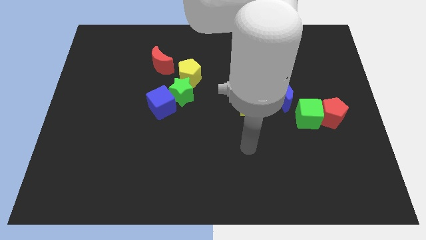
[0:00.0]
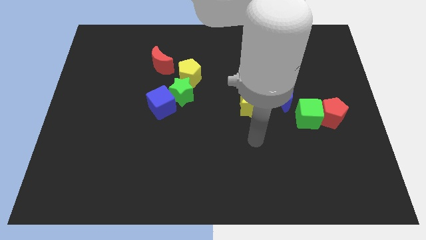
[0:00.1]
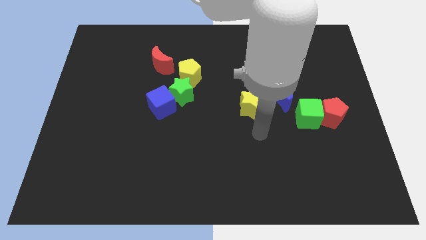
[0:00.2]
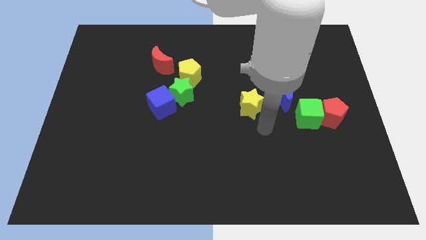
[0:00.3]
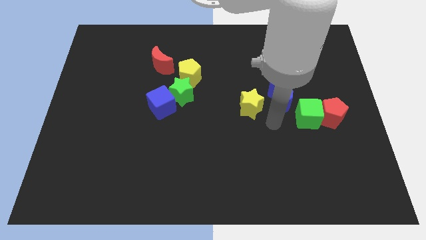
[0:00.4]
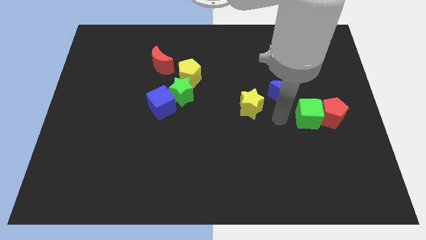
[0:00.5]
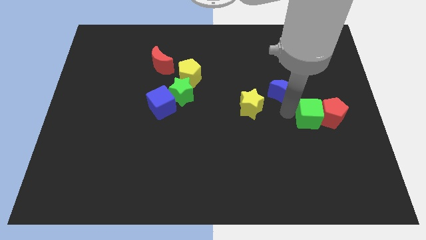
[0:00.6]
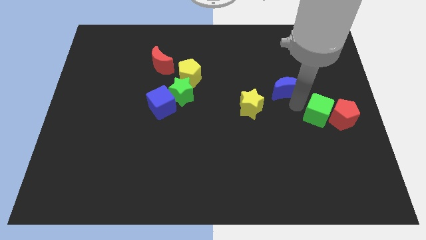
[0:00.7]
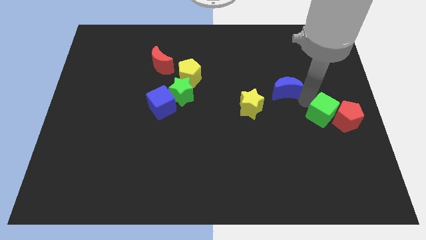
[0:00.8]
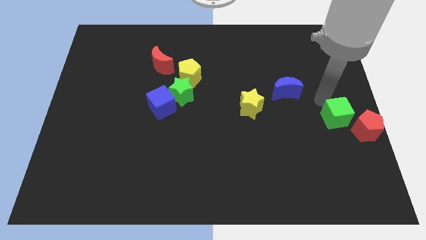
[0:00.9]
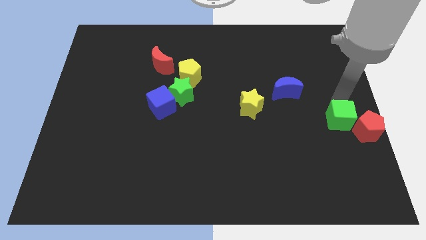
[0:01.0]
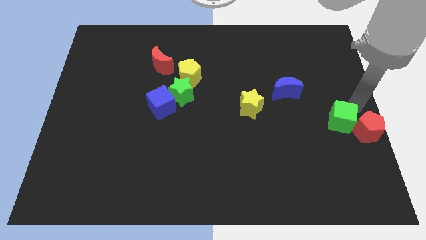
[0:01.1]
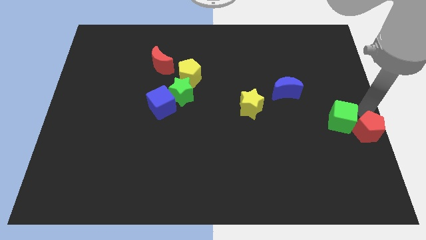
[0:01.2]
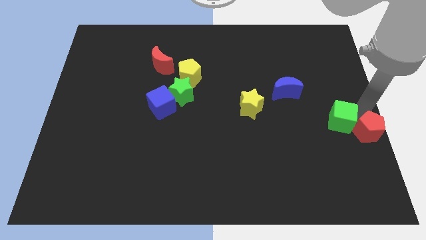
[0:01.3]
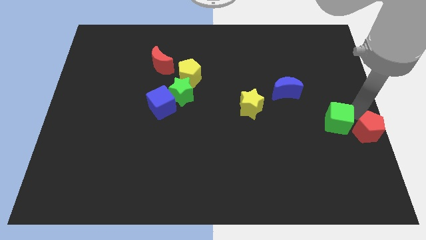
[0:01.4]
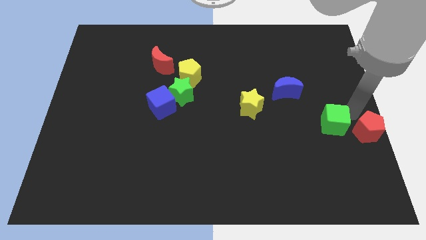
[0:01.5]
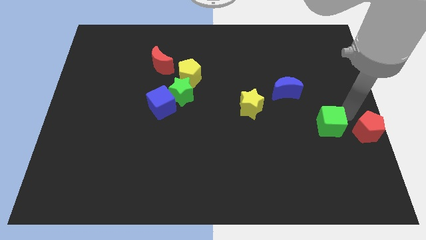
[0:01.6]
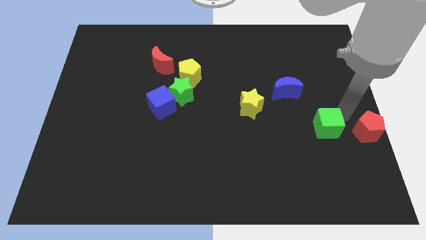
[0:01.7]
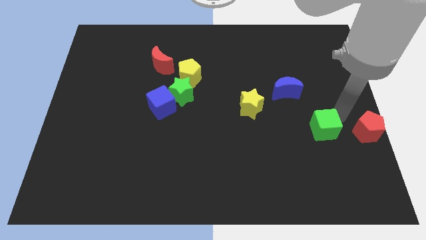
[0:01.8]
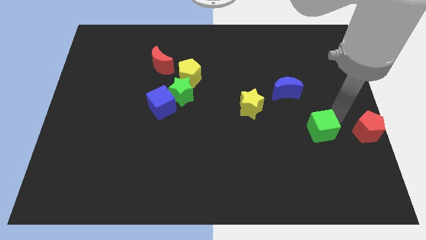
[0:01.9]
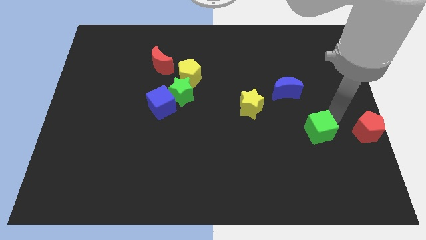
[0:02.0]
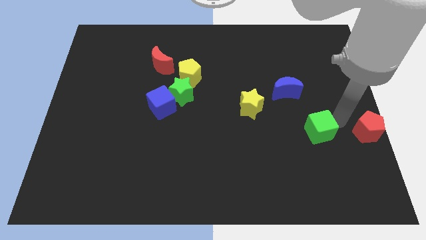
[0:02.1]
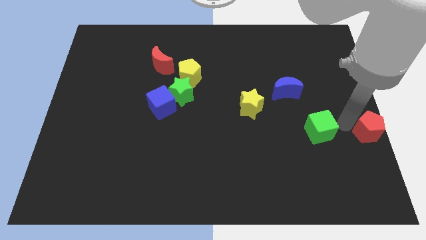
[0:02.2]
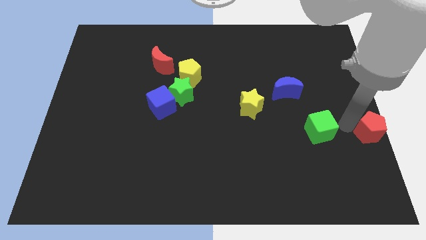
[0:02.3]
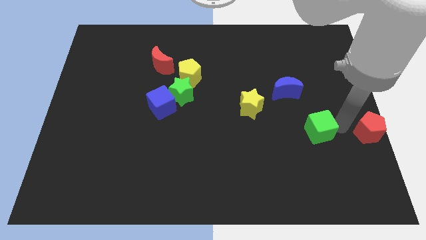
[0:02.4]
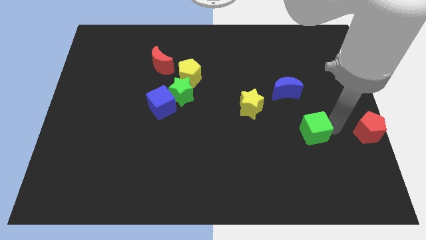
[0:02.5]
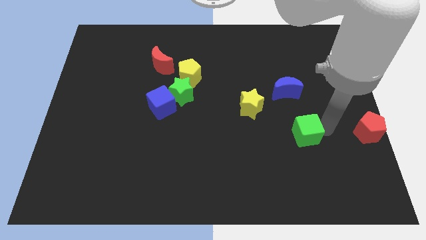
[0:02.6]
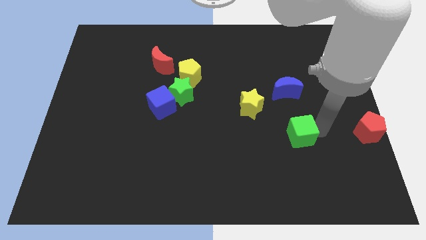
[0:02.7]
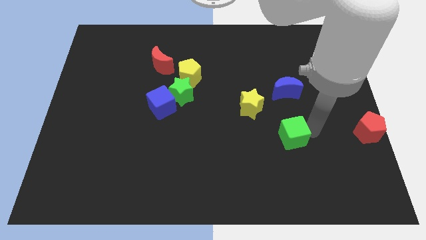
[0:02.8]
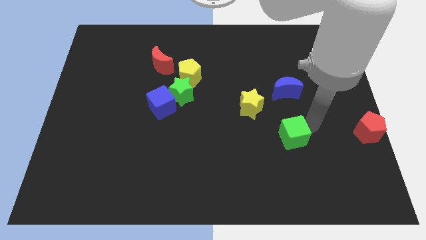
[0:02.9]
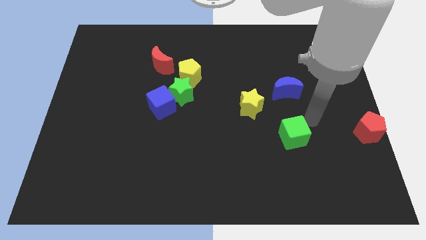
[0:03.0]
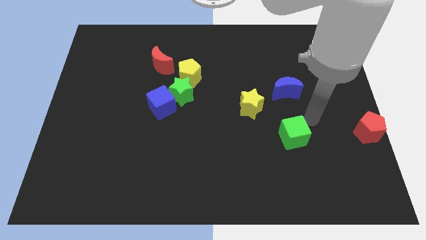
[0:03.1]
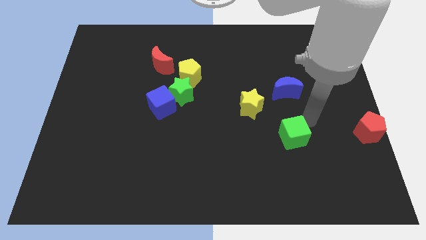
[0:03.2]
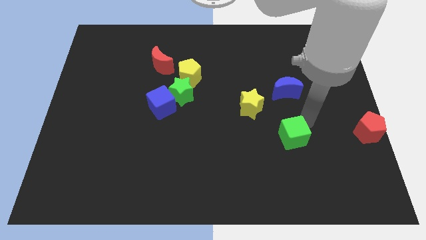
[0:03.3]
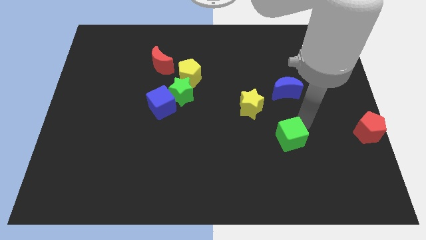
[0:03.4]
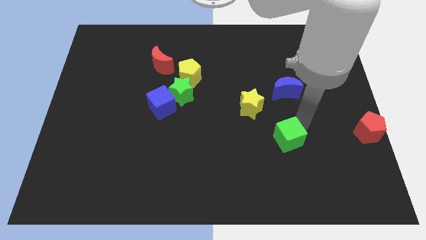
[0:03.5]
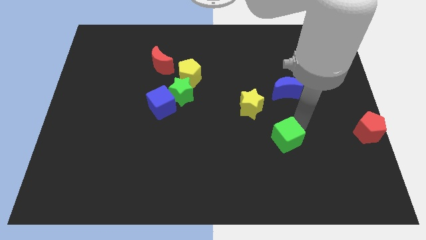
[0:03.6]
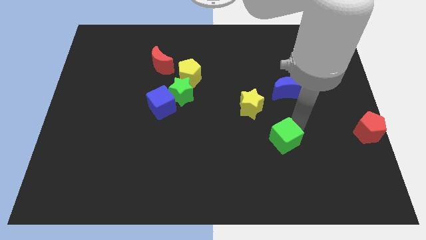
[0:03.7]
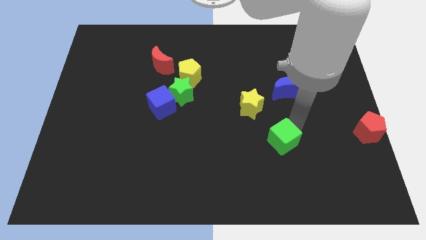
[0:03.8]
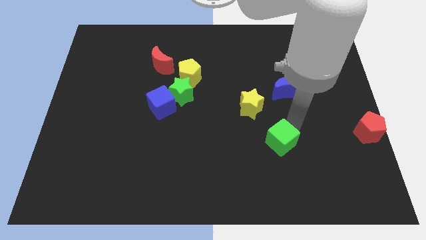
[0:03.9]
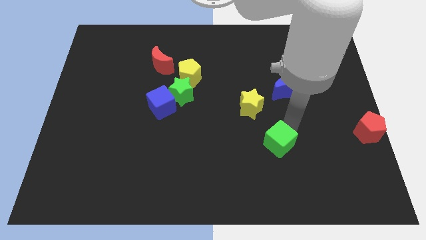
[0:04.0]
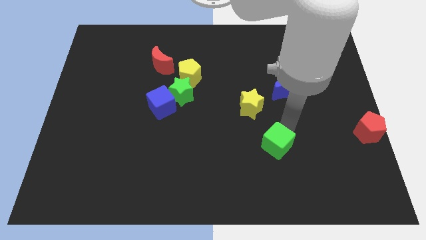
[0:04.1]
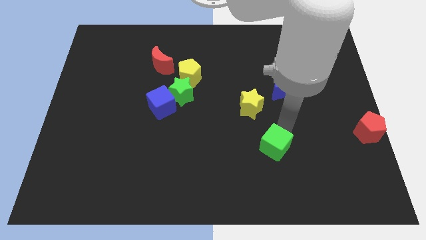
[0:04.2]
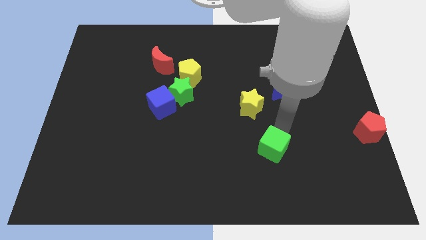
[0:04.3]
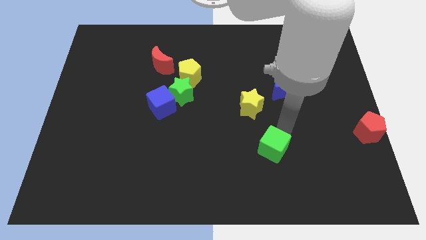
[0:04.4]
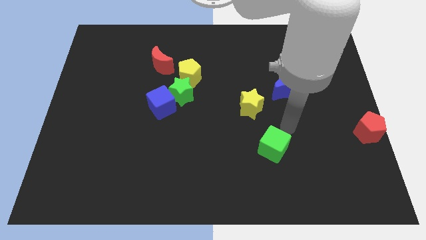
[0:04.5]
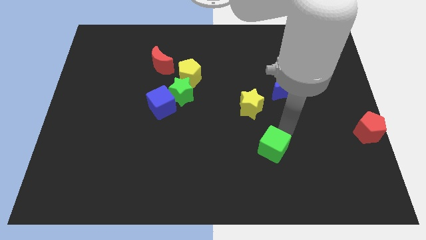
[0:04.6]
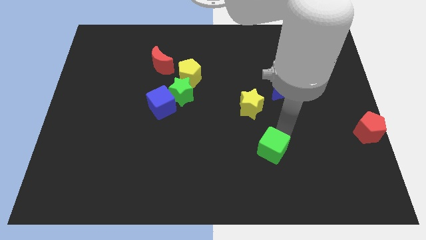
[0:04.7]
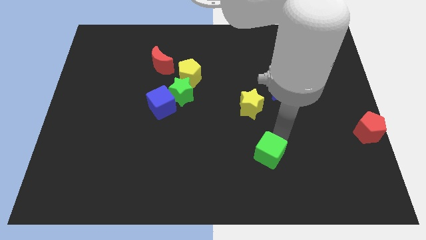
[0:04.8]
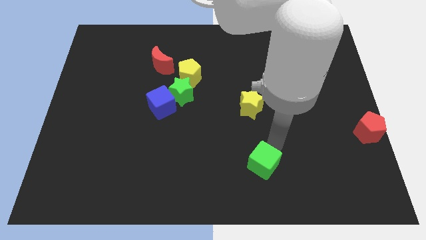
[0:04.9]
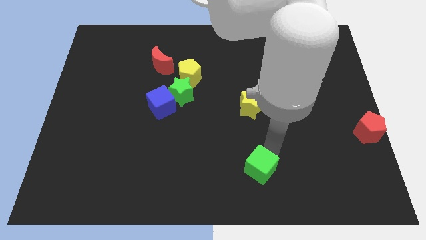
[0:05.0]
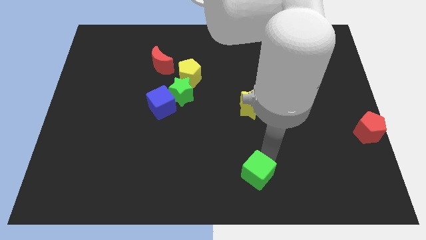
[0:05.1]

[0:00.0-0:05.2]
put the green cube to the bottom side

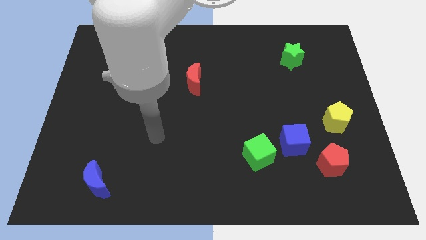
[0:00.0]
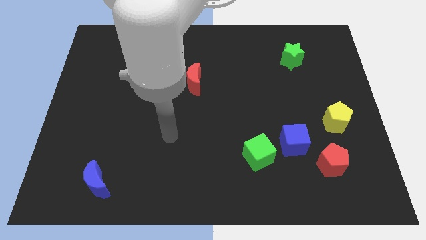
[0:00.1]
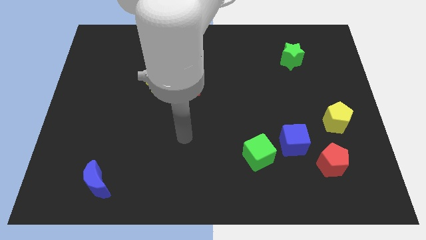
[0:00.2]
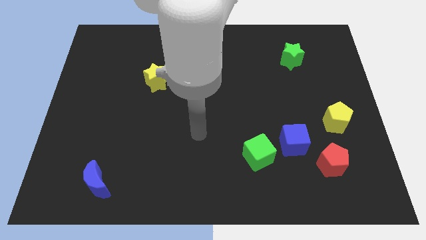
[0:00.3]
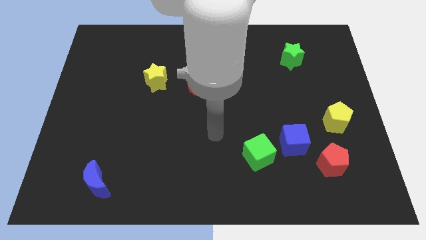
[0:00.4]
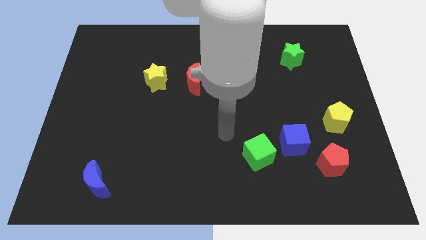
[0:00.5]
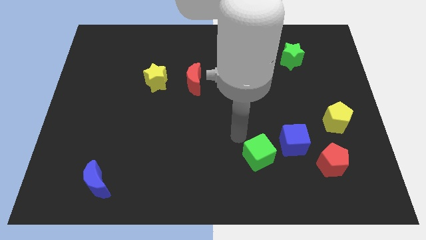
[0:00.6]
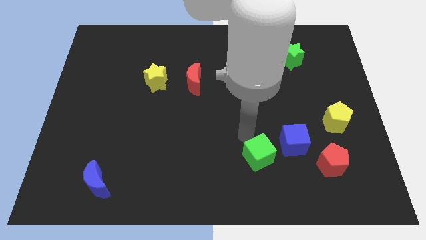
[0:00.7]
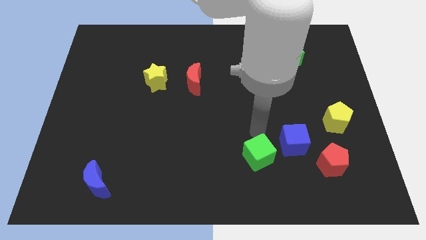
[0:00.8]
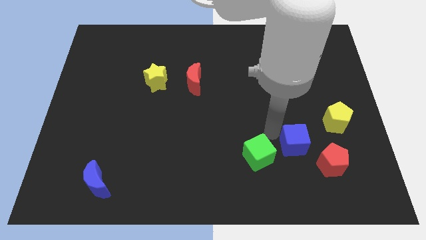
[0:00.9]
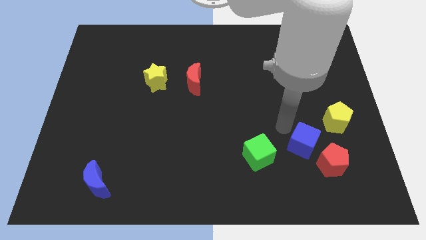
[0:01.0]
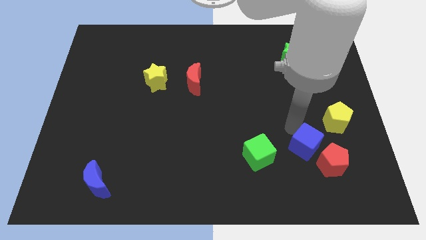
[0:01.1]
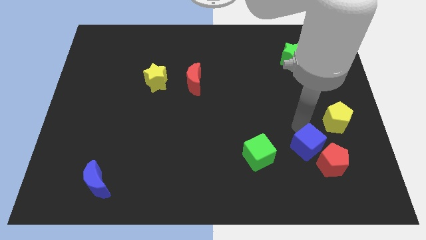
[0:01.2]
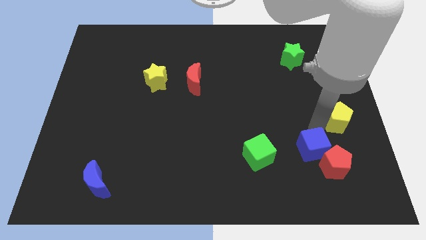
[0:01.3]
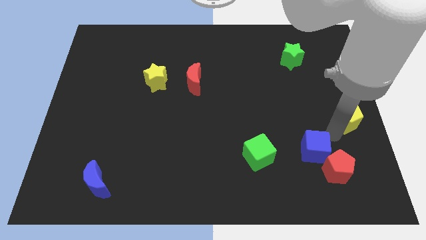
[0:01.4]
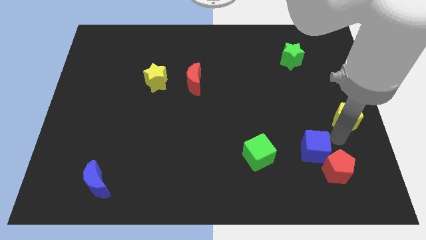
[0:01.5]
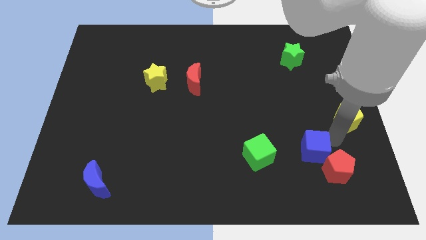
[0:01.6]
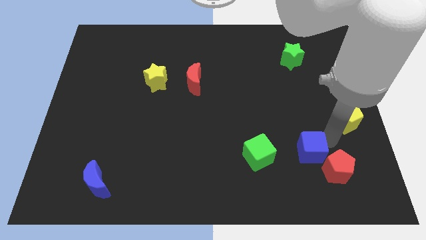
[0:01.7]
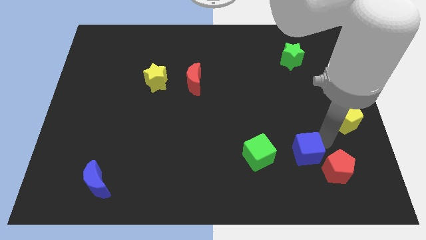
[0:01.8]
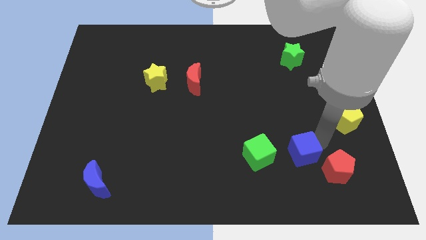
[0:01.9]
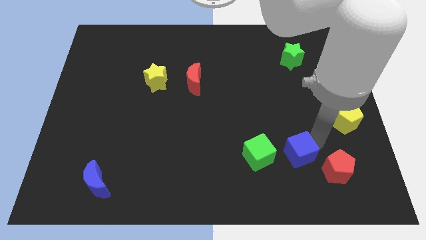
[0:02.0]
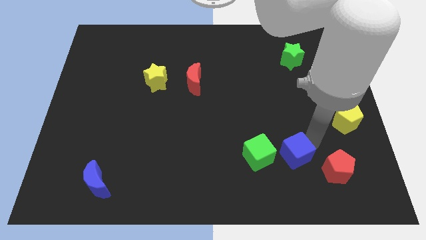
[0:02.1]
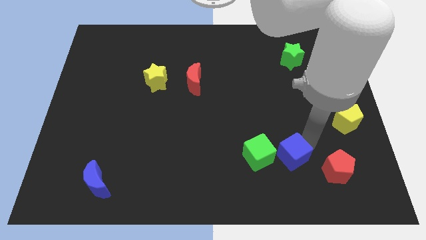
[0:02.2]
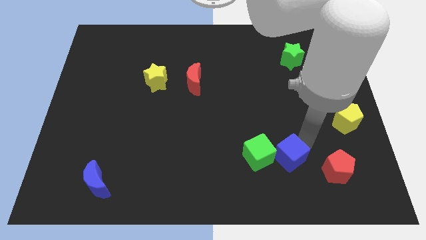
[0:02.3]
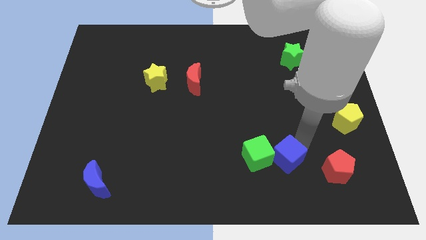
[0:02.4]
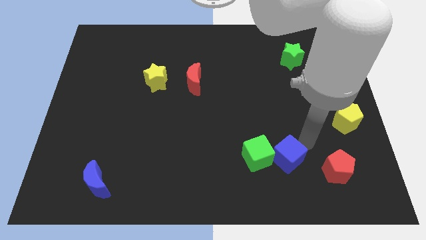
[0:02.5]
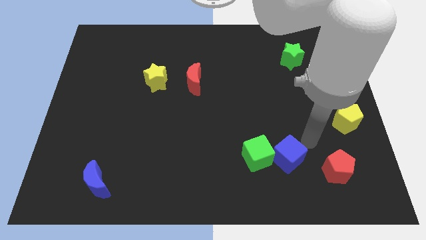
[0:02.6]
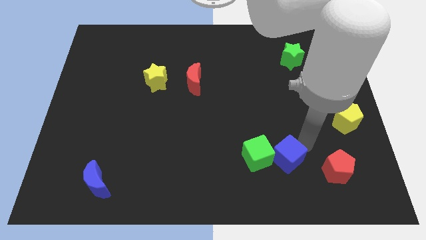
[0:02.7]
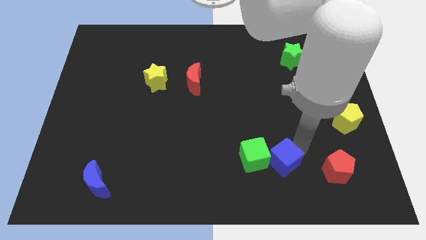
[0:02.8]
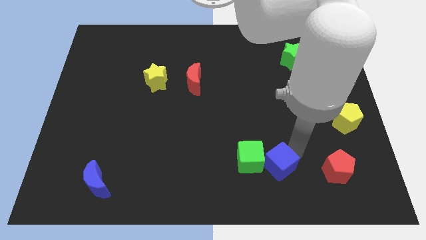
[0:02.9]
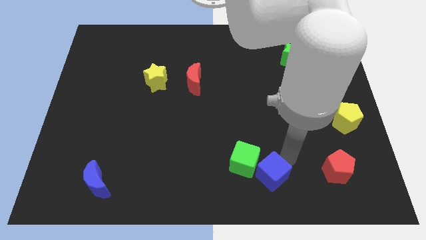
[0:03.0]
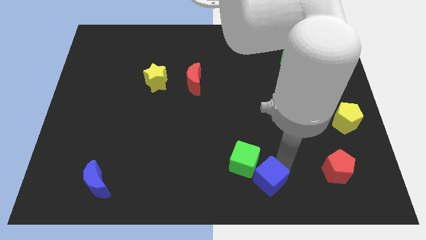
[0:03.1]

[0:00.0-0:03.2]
move the blue cube to the bottom
